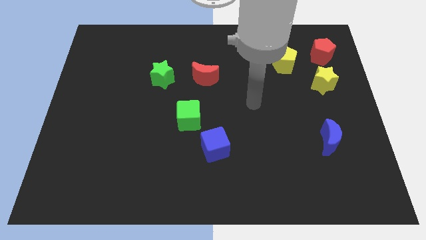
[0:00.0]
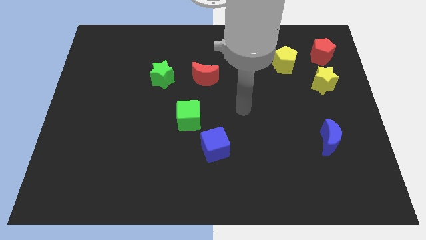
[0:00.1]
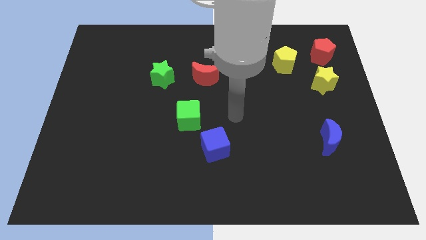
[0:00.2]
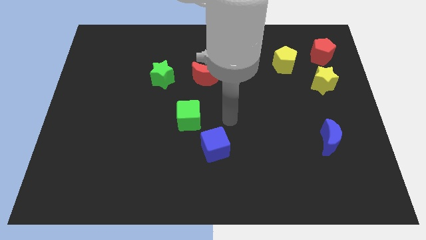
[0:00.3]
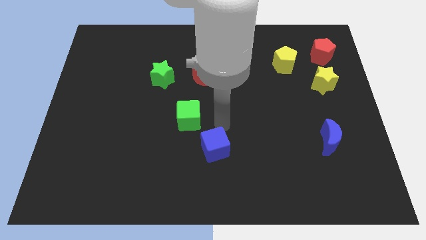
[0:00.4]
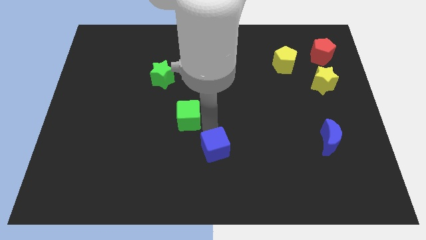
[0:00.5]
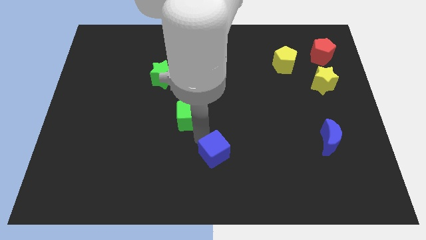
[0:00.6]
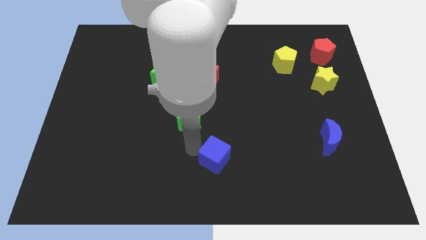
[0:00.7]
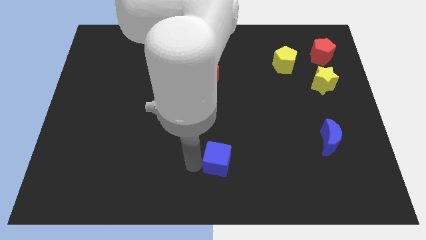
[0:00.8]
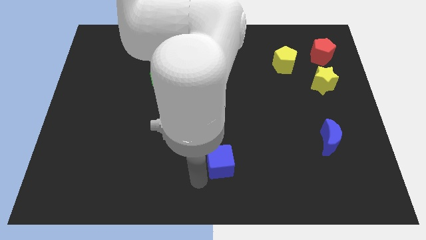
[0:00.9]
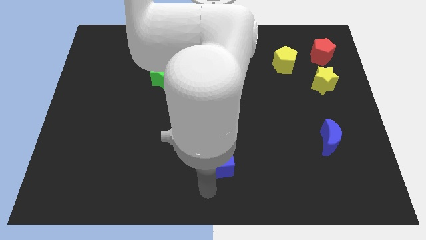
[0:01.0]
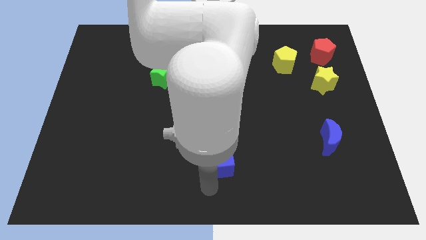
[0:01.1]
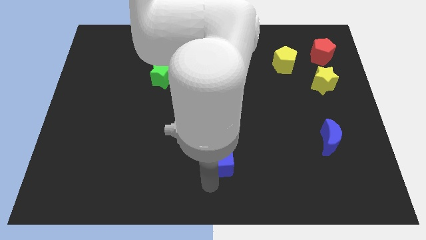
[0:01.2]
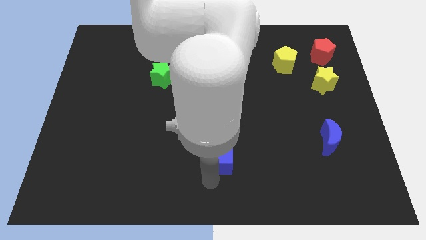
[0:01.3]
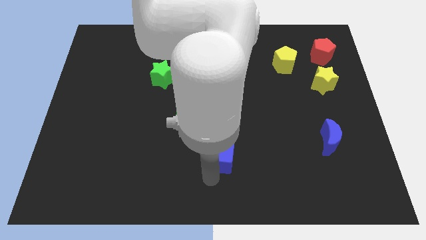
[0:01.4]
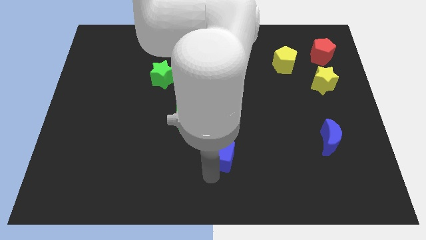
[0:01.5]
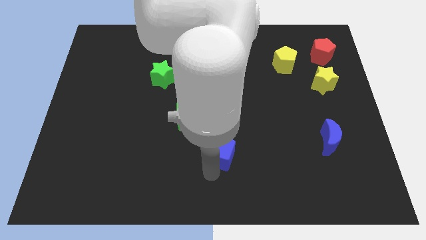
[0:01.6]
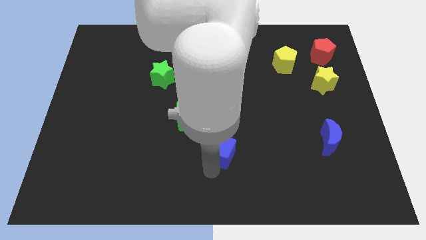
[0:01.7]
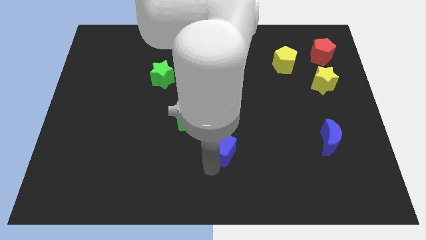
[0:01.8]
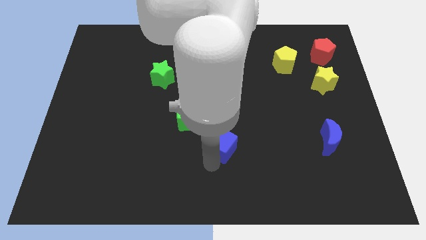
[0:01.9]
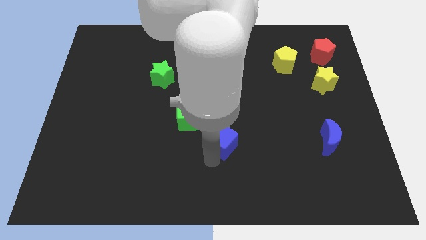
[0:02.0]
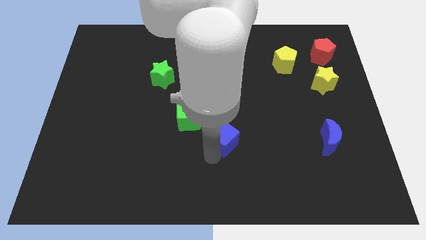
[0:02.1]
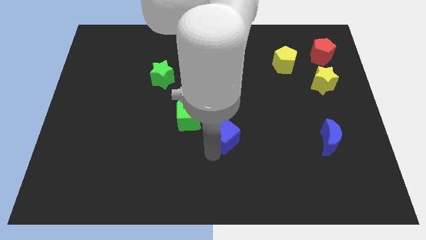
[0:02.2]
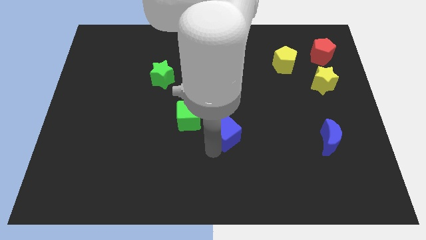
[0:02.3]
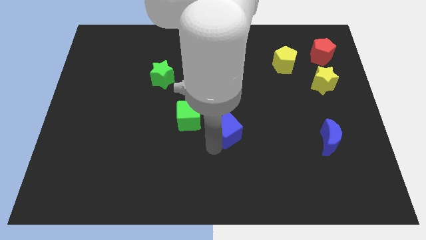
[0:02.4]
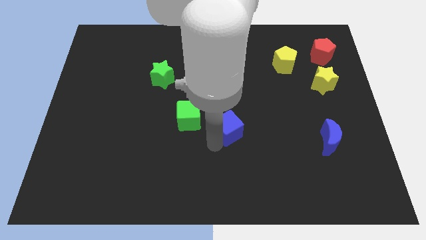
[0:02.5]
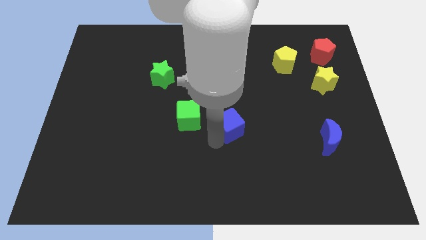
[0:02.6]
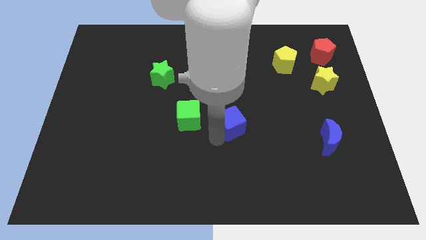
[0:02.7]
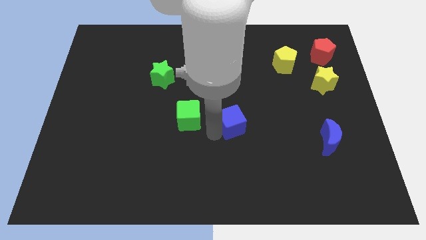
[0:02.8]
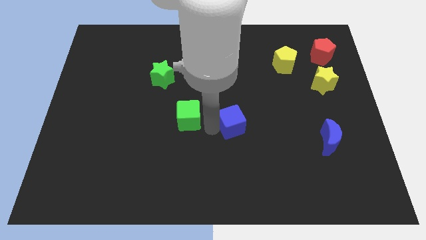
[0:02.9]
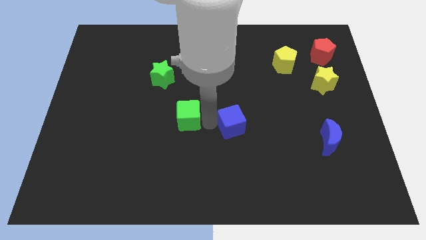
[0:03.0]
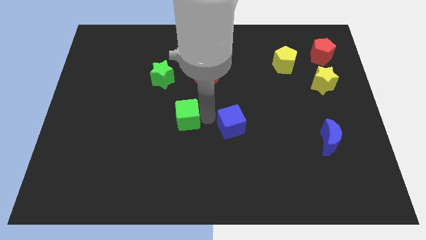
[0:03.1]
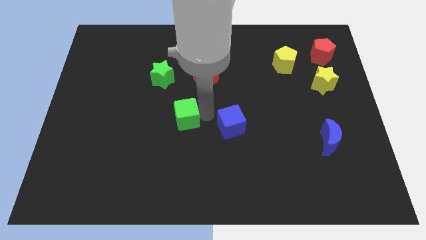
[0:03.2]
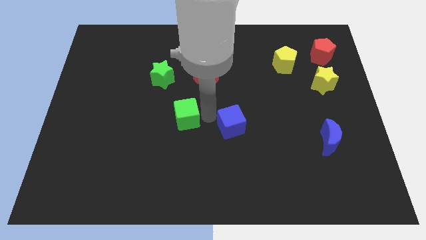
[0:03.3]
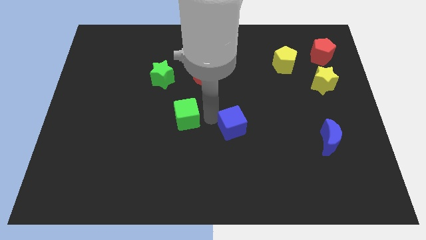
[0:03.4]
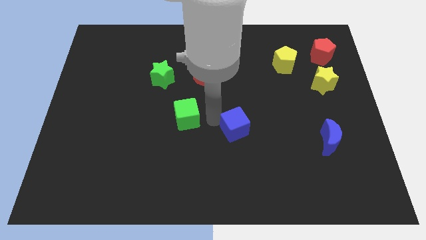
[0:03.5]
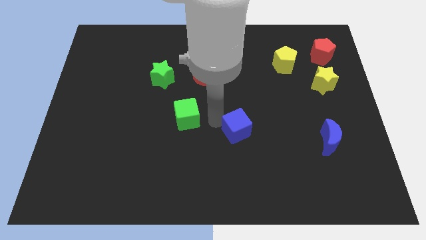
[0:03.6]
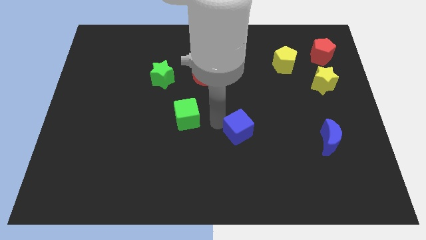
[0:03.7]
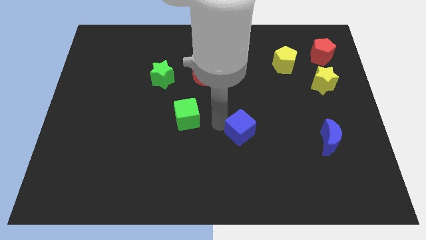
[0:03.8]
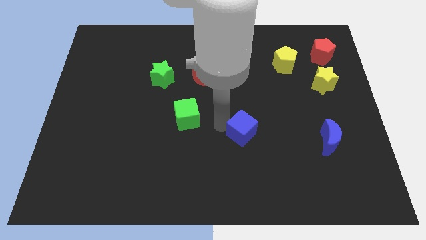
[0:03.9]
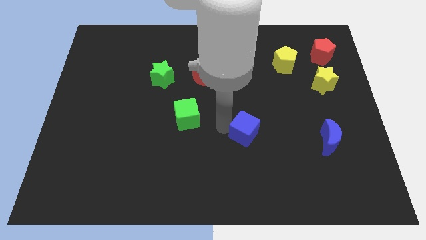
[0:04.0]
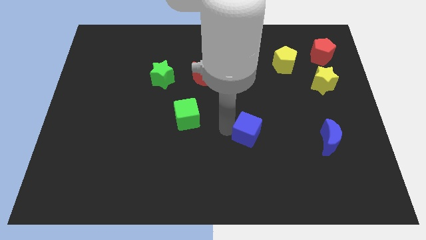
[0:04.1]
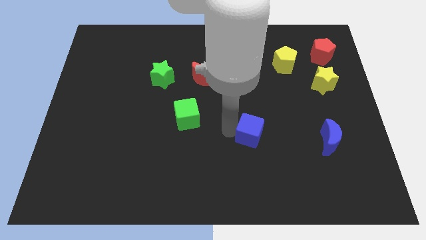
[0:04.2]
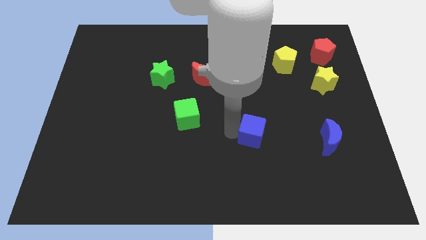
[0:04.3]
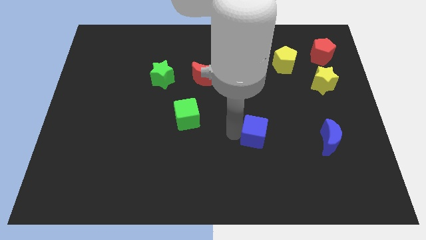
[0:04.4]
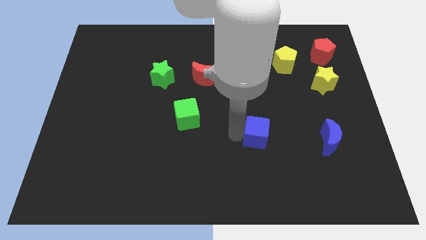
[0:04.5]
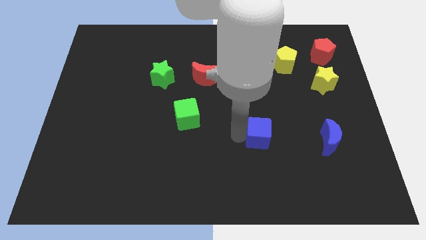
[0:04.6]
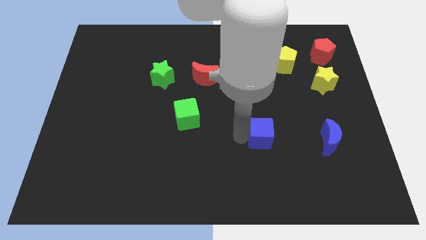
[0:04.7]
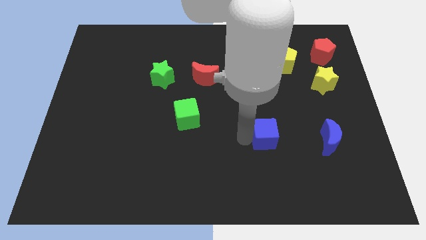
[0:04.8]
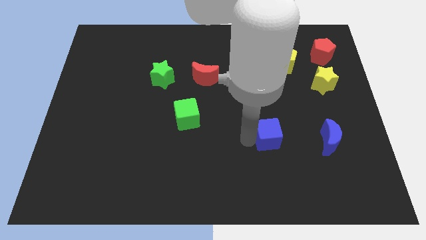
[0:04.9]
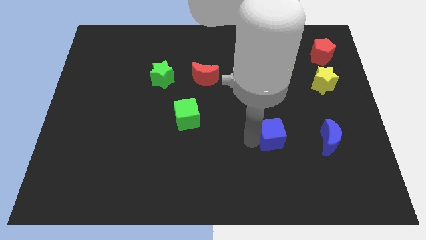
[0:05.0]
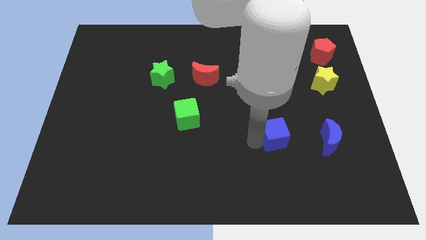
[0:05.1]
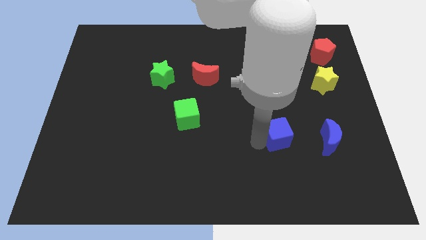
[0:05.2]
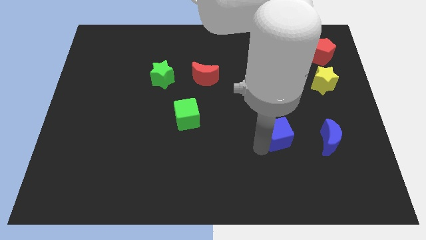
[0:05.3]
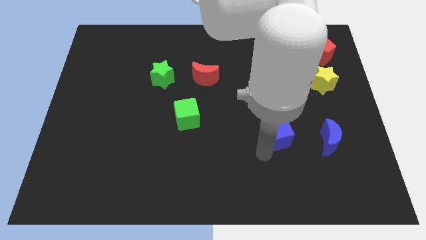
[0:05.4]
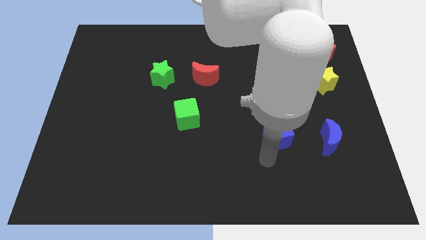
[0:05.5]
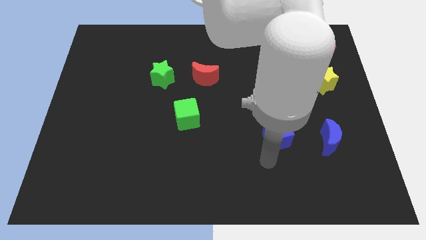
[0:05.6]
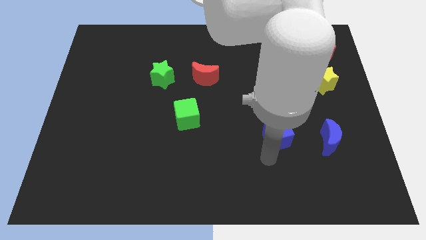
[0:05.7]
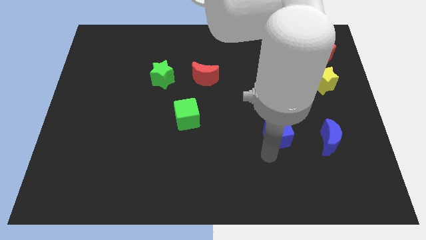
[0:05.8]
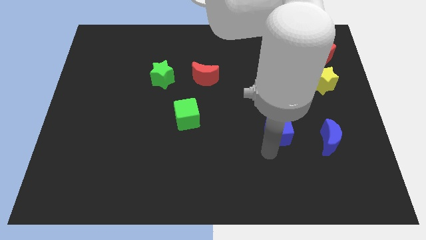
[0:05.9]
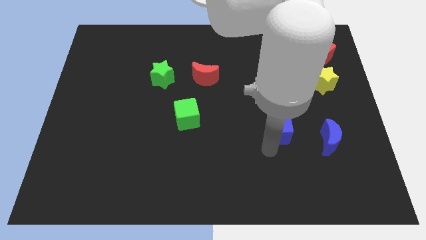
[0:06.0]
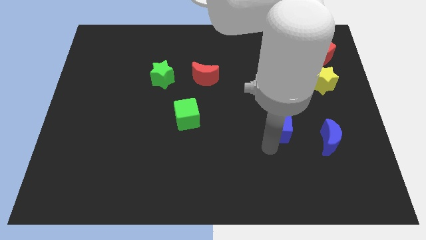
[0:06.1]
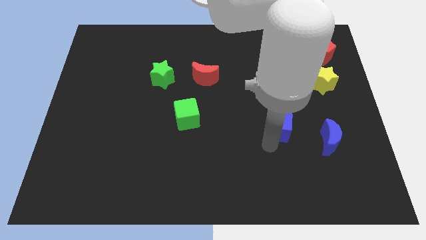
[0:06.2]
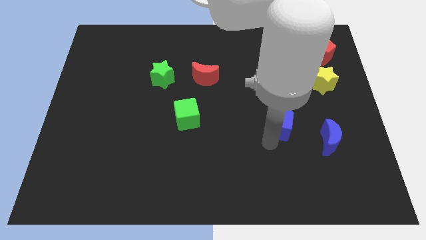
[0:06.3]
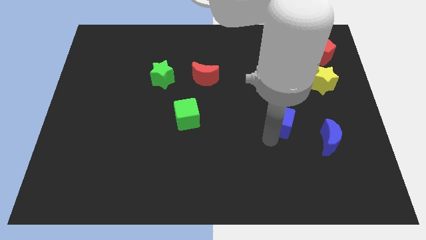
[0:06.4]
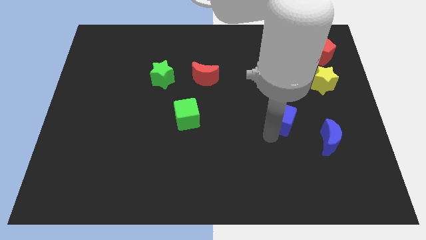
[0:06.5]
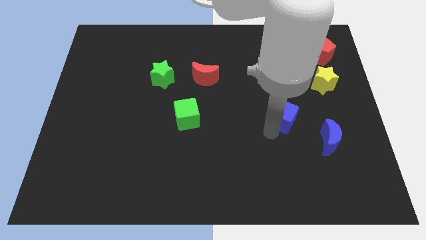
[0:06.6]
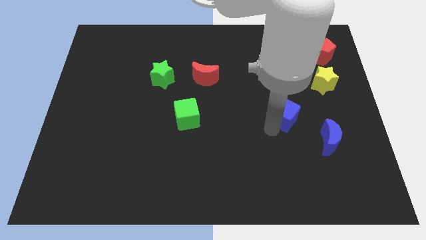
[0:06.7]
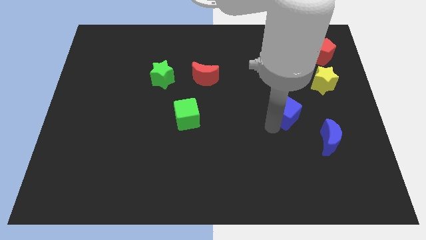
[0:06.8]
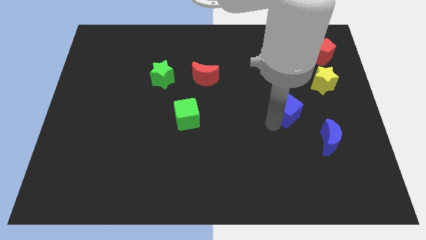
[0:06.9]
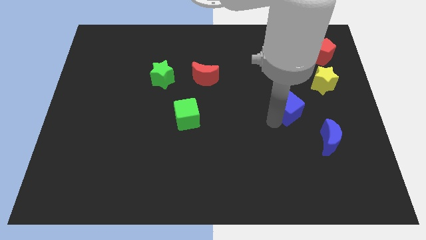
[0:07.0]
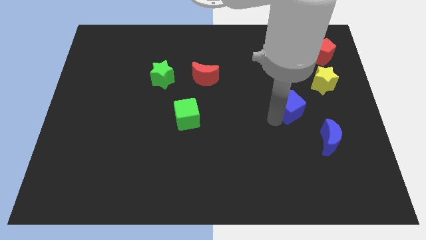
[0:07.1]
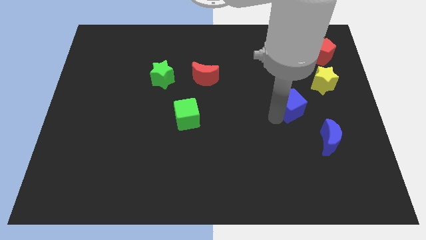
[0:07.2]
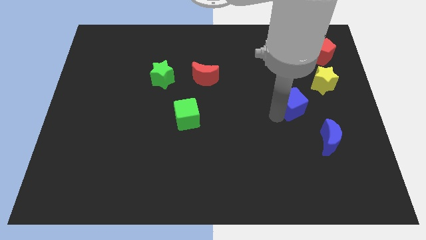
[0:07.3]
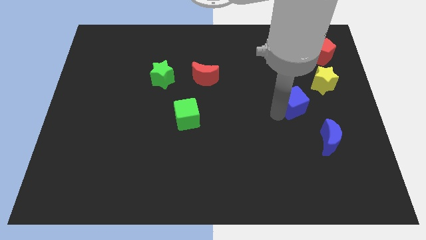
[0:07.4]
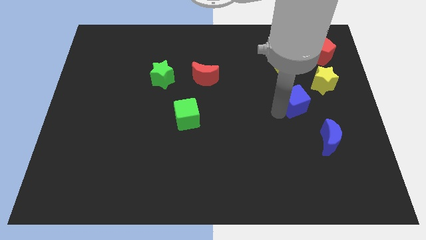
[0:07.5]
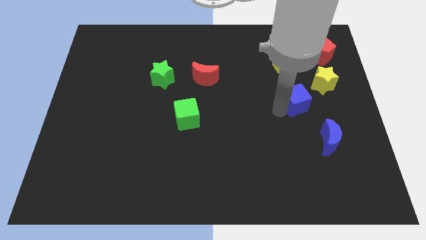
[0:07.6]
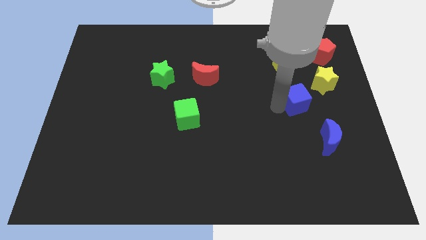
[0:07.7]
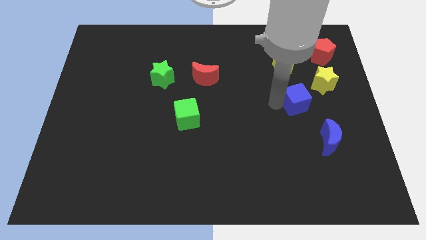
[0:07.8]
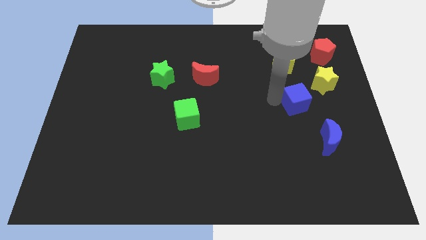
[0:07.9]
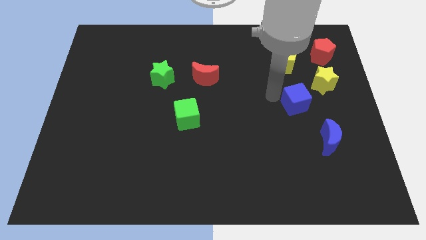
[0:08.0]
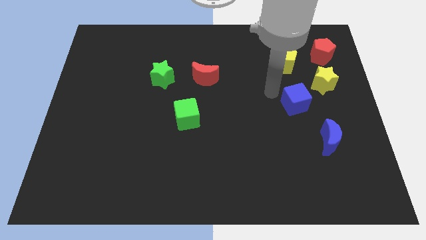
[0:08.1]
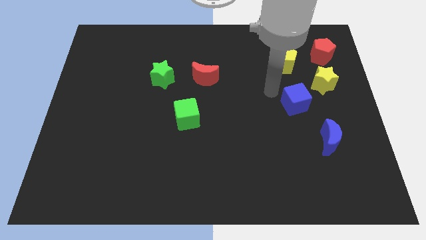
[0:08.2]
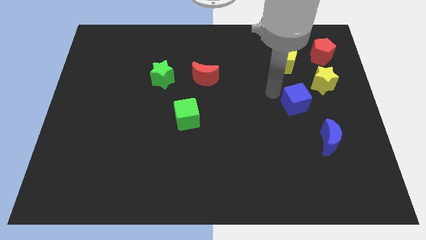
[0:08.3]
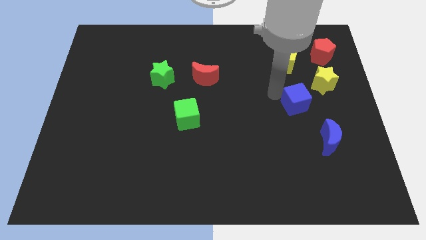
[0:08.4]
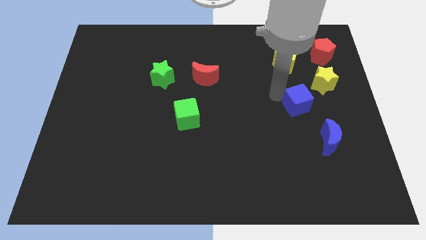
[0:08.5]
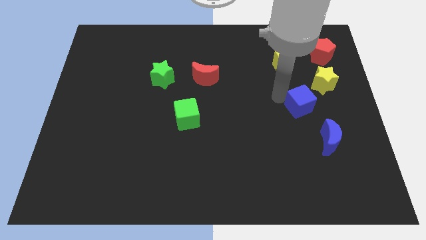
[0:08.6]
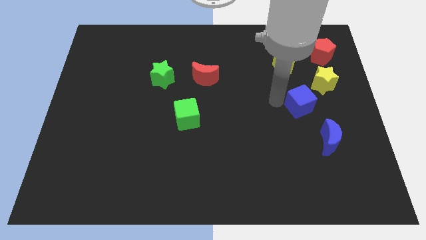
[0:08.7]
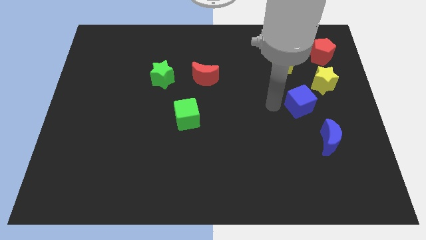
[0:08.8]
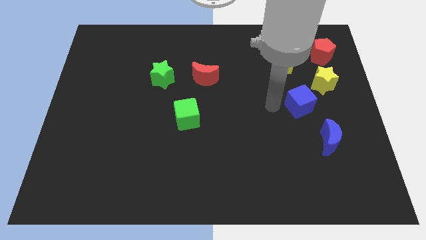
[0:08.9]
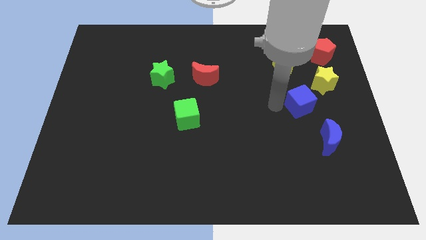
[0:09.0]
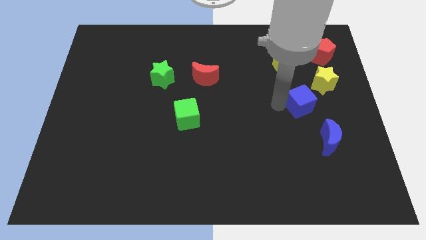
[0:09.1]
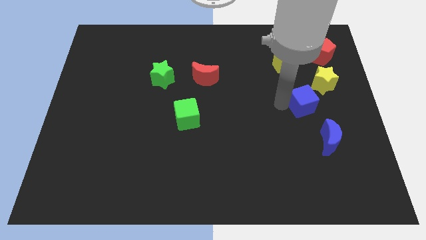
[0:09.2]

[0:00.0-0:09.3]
move the blue cube to the top side of the blue moon
